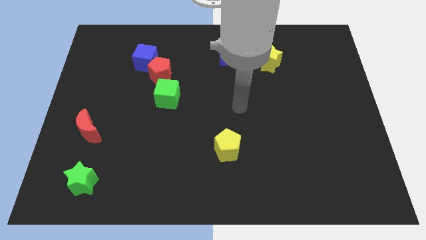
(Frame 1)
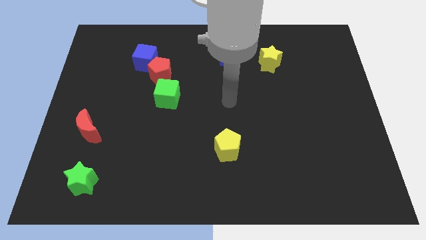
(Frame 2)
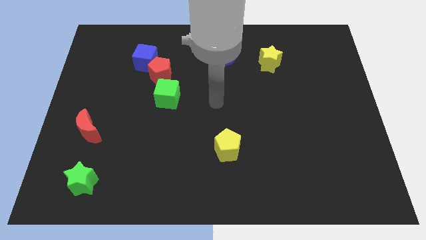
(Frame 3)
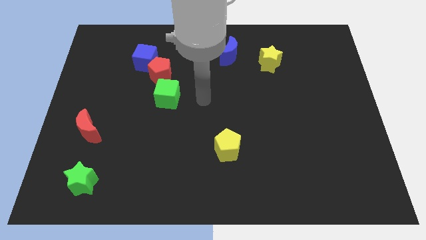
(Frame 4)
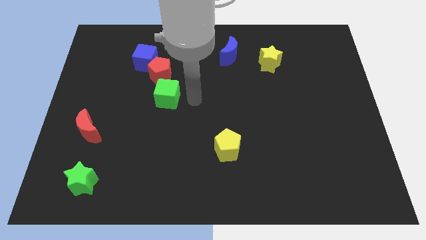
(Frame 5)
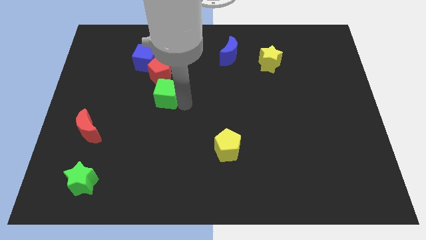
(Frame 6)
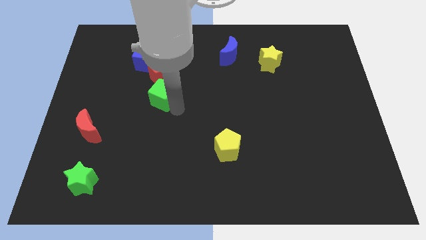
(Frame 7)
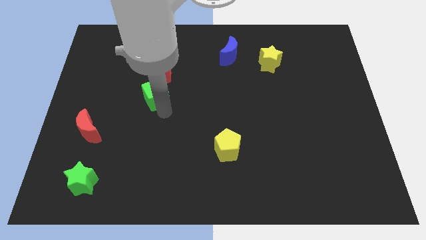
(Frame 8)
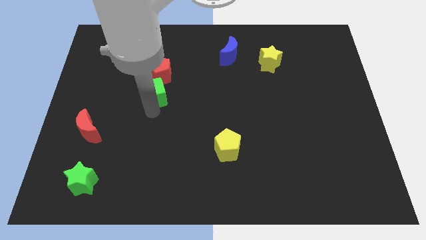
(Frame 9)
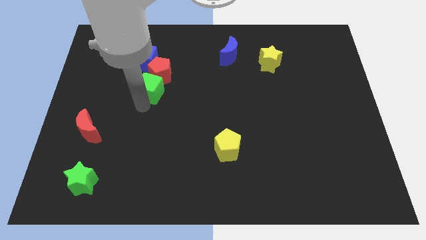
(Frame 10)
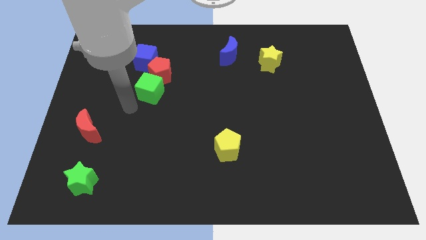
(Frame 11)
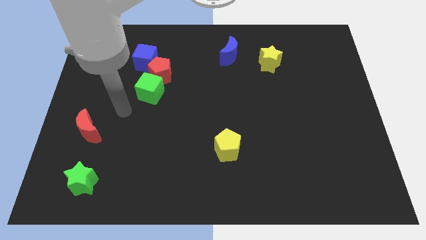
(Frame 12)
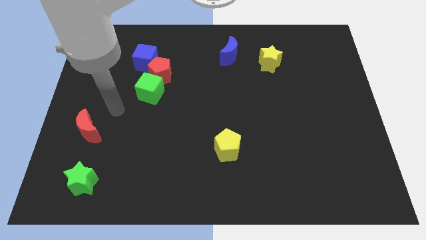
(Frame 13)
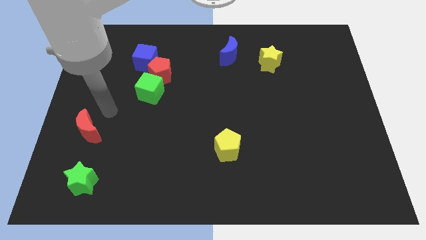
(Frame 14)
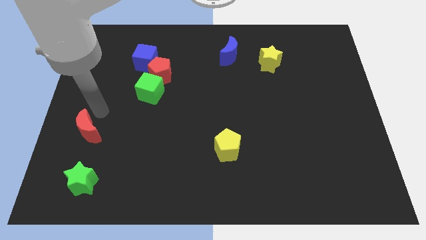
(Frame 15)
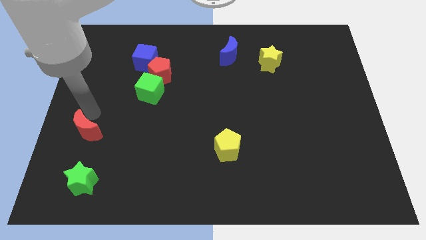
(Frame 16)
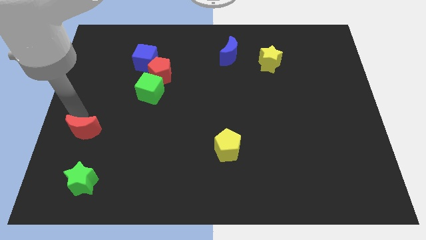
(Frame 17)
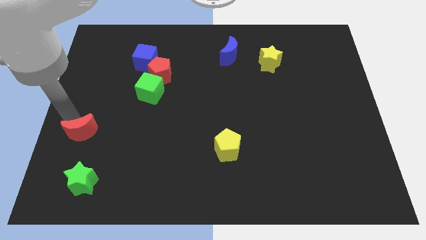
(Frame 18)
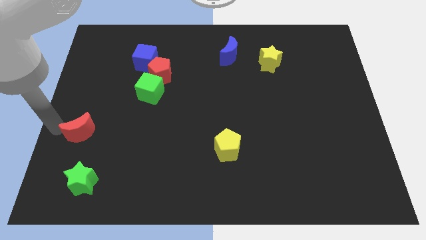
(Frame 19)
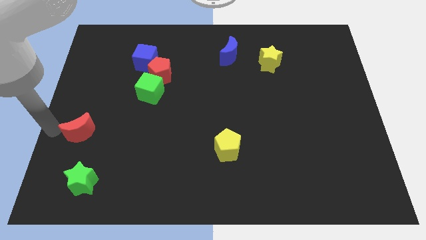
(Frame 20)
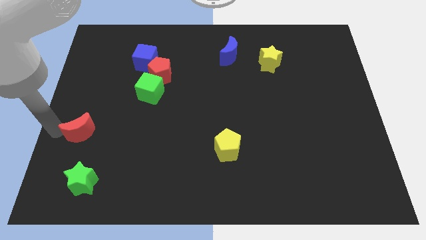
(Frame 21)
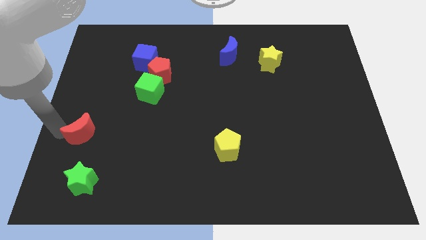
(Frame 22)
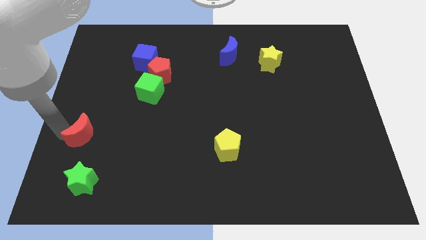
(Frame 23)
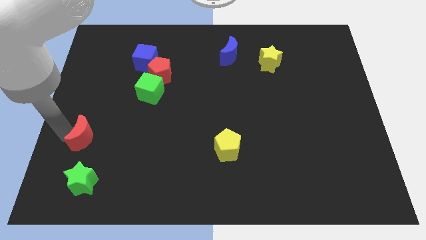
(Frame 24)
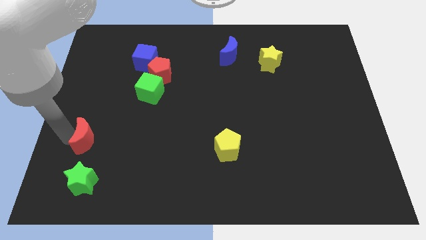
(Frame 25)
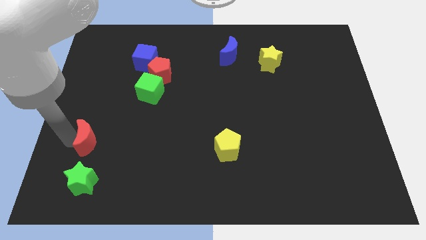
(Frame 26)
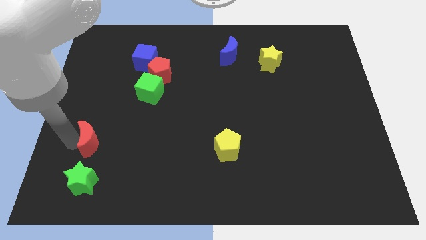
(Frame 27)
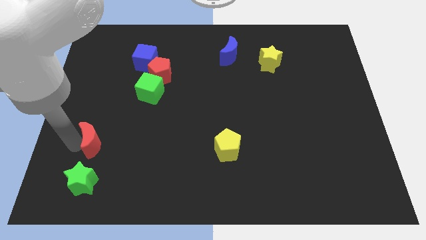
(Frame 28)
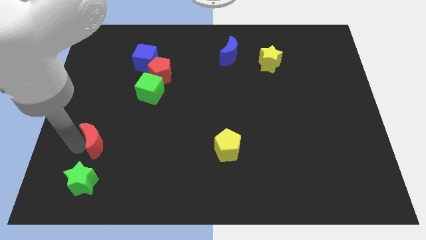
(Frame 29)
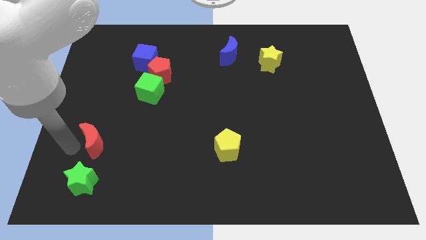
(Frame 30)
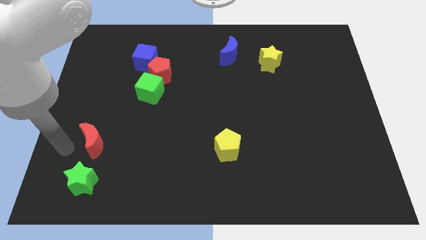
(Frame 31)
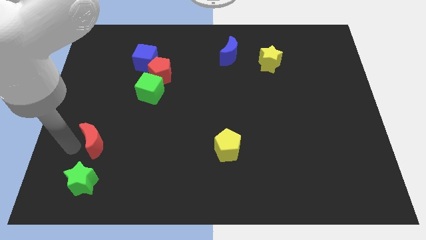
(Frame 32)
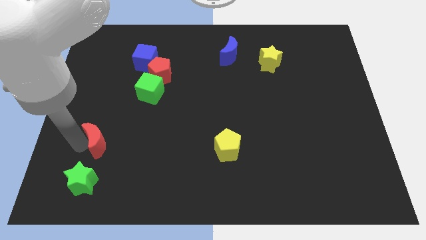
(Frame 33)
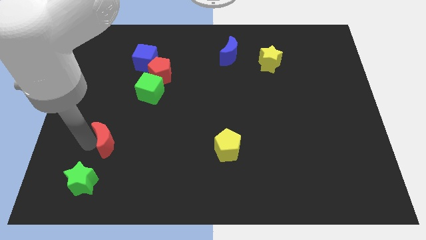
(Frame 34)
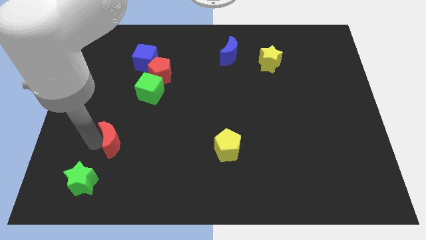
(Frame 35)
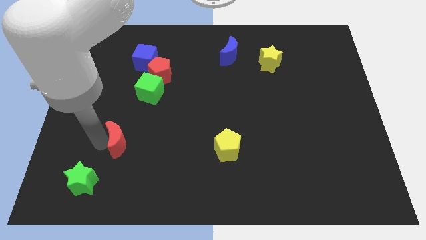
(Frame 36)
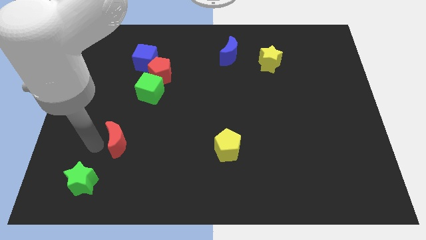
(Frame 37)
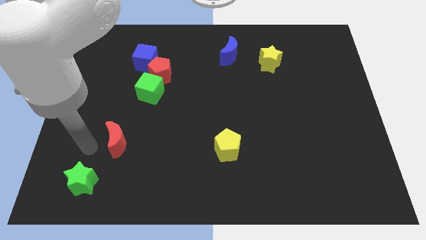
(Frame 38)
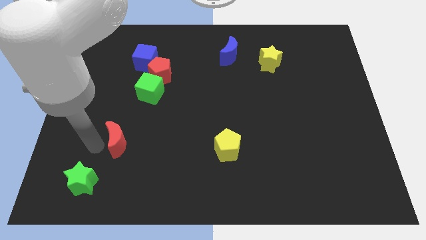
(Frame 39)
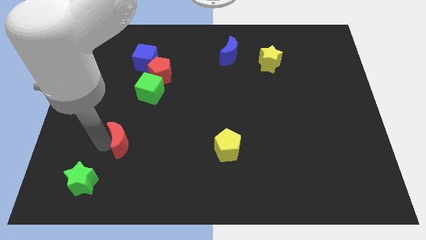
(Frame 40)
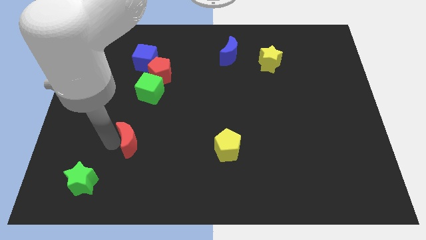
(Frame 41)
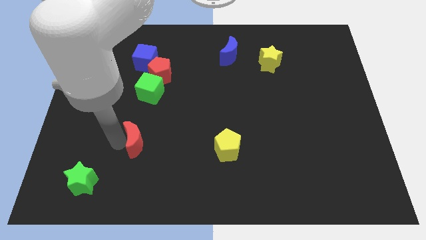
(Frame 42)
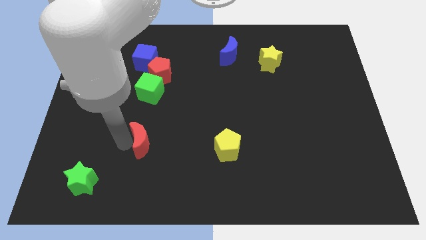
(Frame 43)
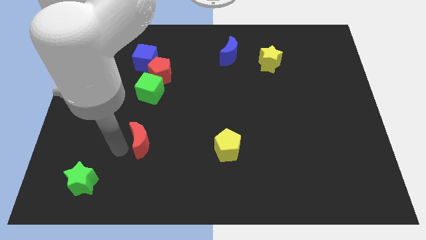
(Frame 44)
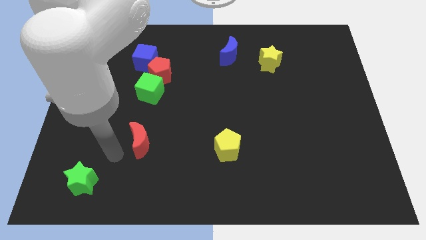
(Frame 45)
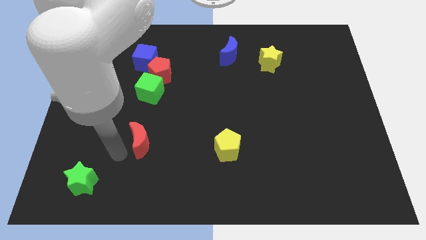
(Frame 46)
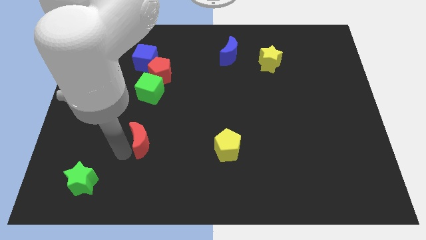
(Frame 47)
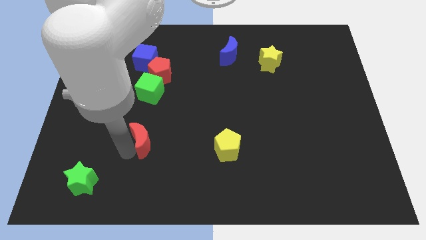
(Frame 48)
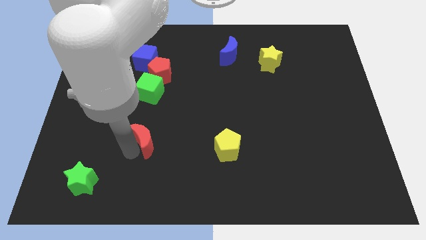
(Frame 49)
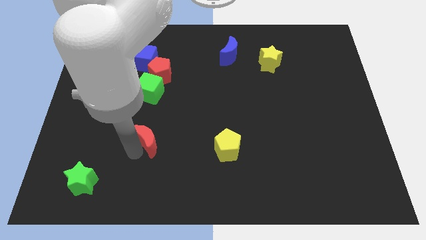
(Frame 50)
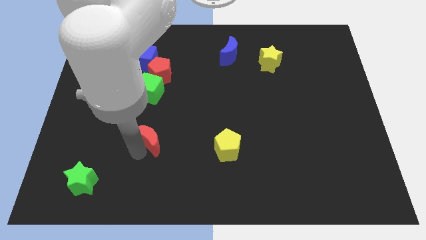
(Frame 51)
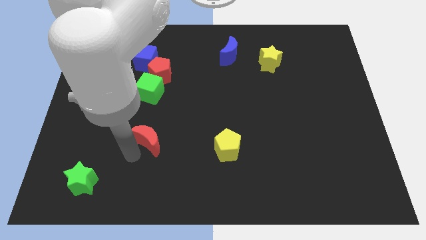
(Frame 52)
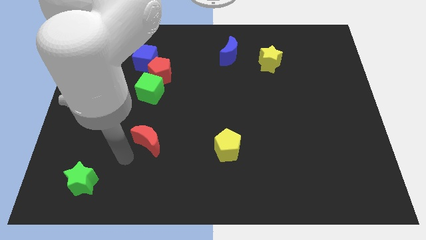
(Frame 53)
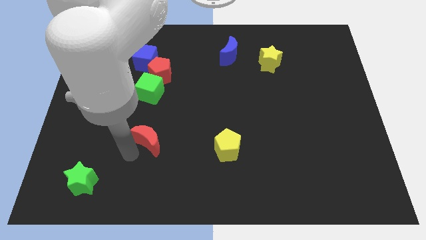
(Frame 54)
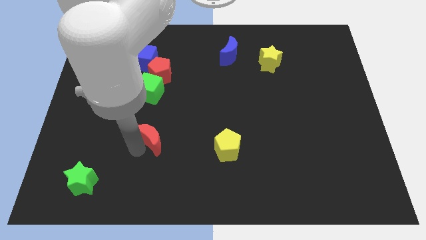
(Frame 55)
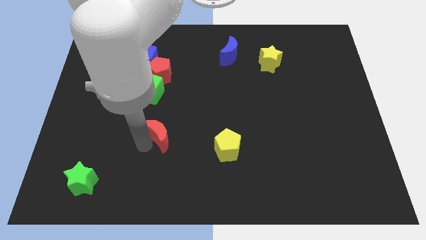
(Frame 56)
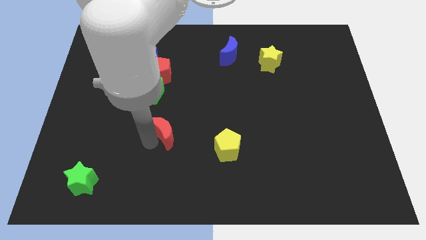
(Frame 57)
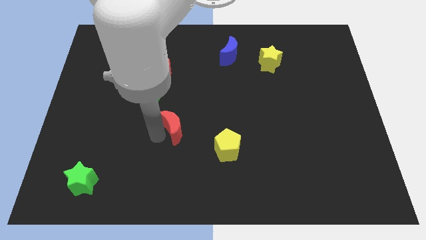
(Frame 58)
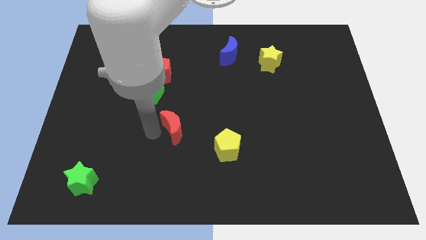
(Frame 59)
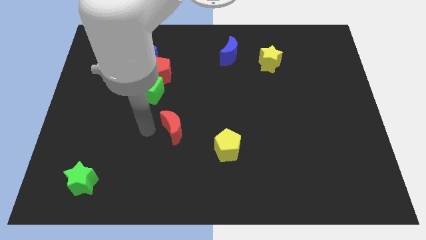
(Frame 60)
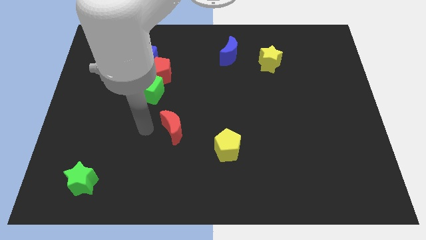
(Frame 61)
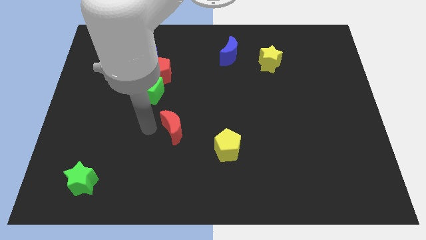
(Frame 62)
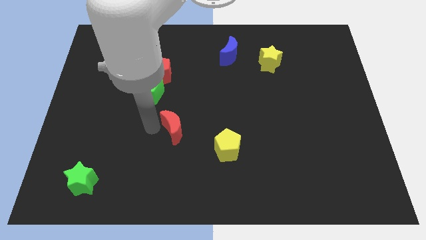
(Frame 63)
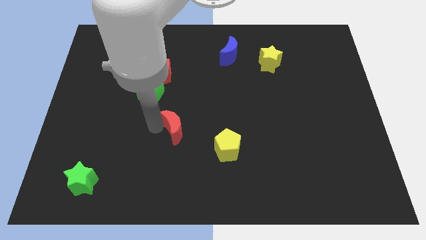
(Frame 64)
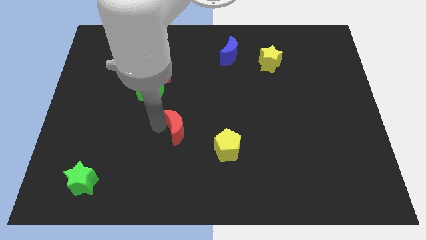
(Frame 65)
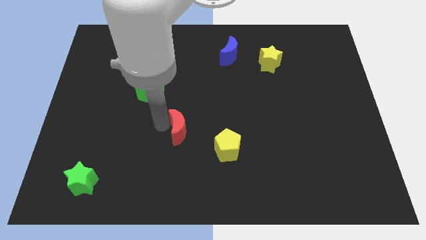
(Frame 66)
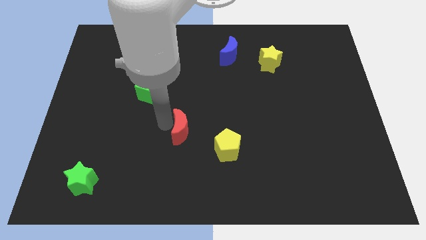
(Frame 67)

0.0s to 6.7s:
slide the red moon to the top left of the yellow pentagon
